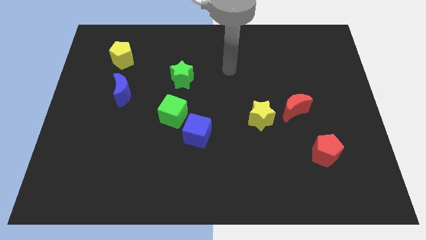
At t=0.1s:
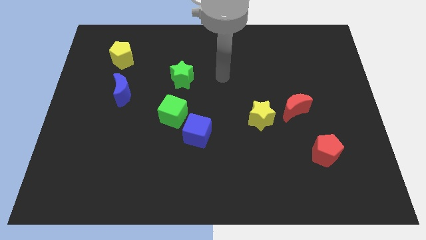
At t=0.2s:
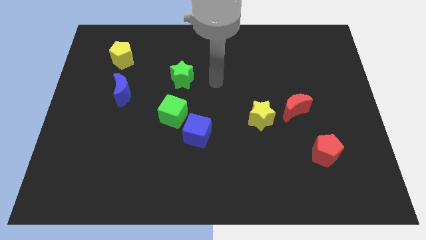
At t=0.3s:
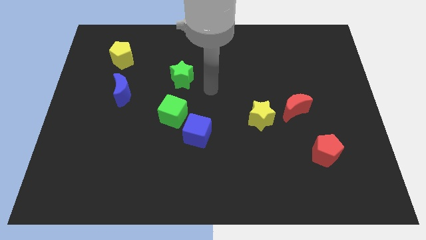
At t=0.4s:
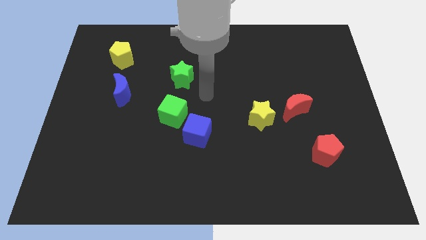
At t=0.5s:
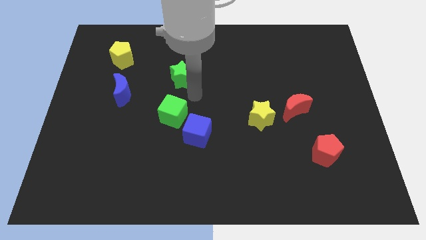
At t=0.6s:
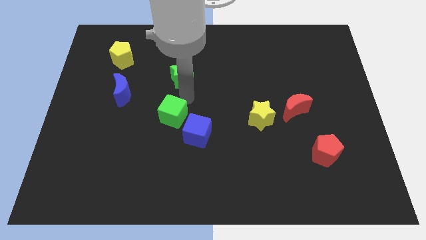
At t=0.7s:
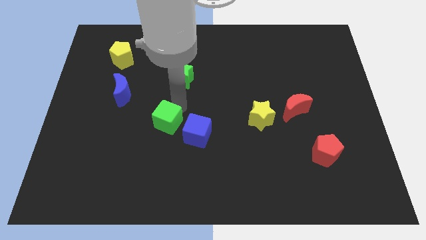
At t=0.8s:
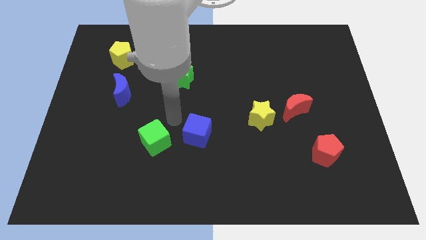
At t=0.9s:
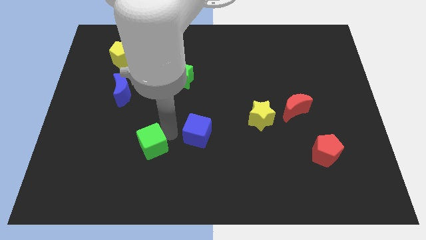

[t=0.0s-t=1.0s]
separate the blue cube from the green cube

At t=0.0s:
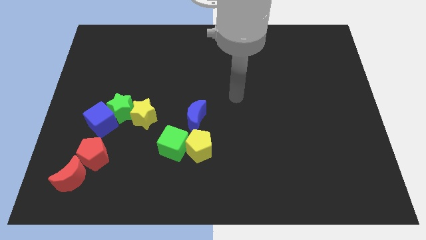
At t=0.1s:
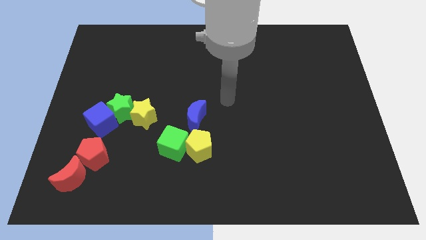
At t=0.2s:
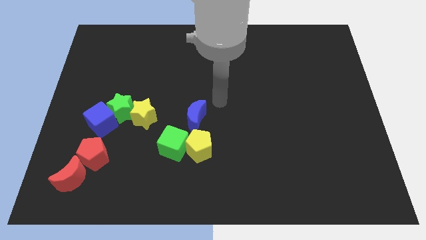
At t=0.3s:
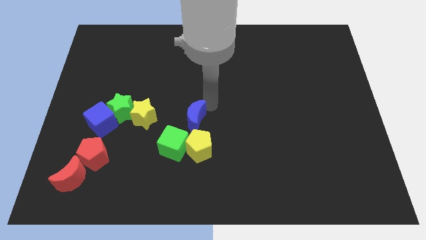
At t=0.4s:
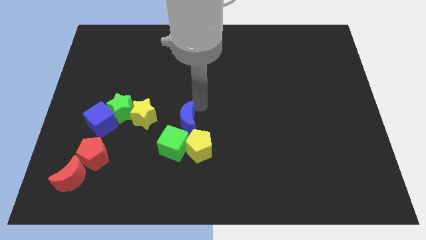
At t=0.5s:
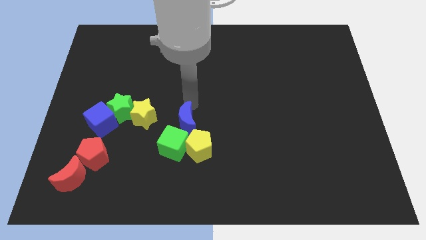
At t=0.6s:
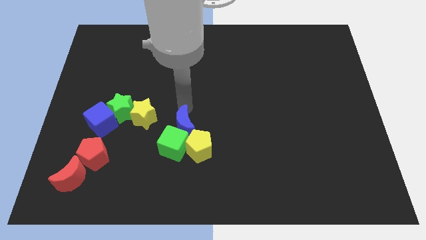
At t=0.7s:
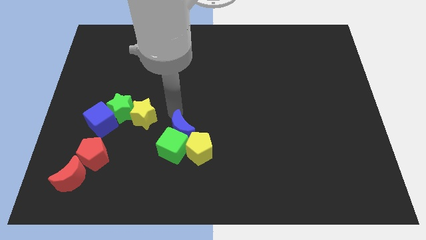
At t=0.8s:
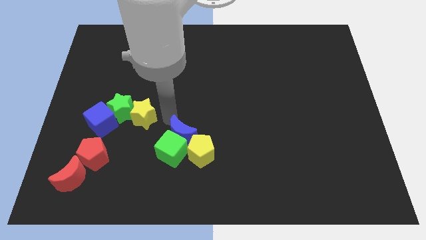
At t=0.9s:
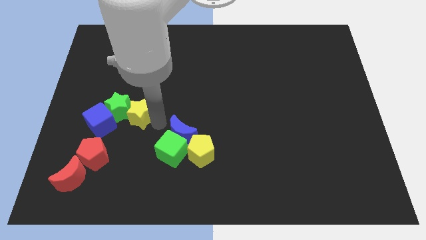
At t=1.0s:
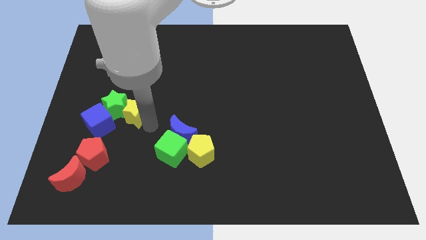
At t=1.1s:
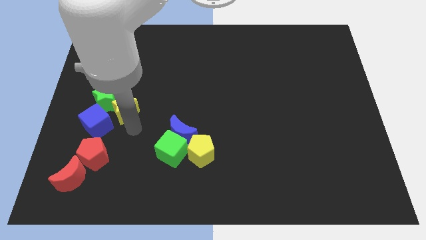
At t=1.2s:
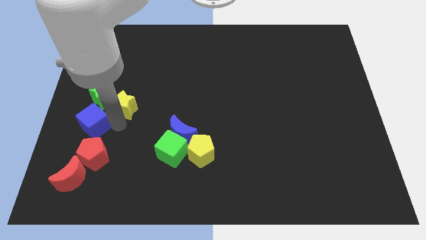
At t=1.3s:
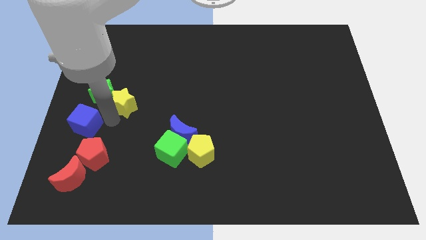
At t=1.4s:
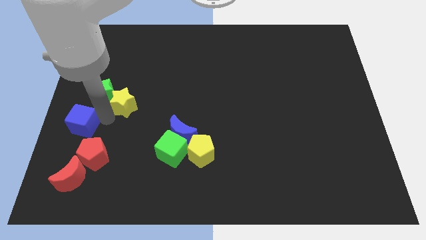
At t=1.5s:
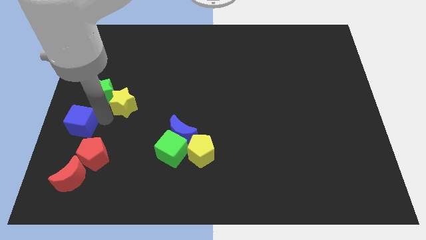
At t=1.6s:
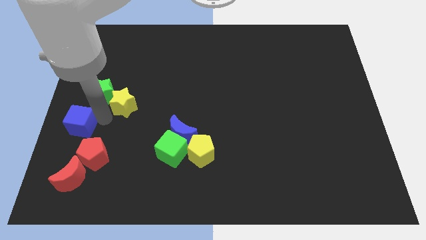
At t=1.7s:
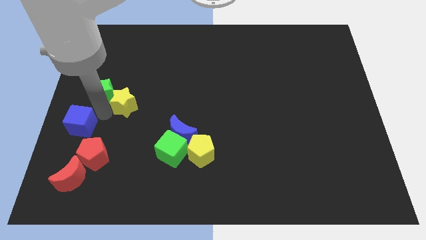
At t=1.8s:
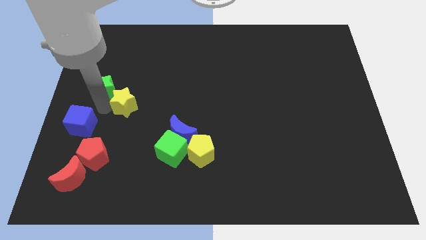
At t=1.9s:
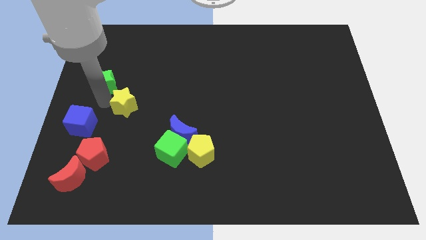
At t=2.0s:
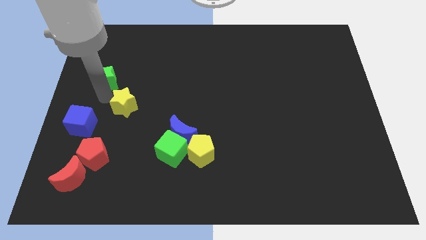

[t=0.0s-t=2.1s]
move the green star away from the blue cube and yellow star

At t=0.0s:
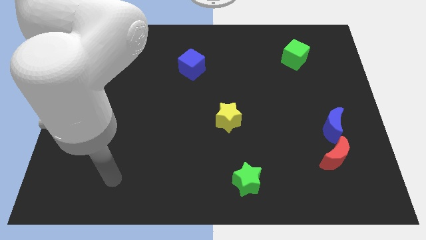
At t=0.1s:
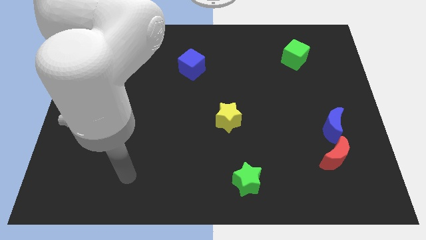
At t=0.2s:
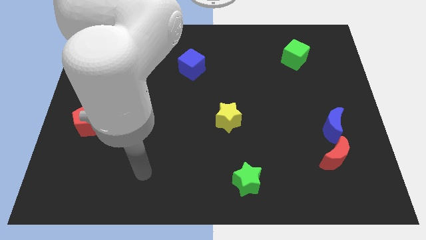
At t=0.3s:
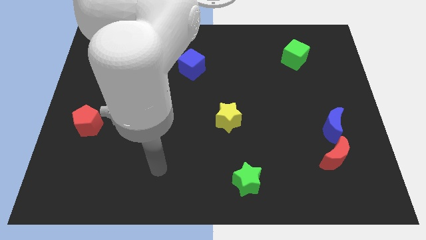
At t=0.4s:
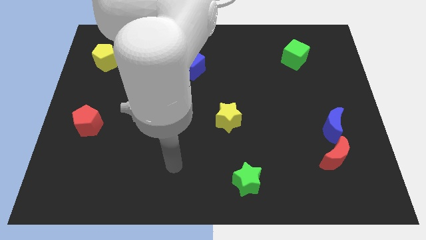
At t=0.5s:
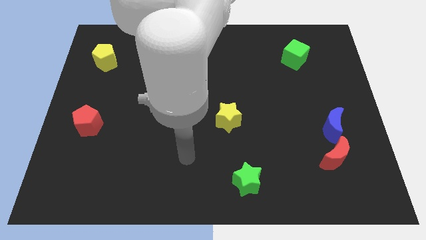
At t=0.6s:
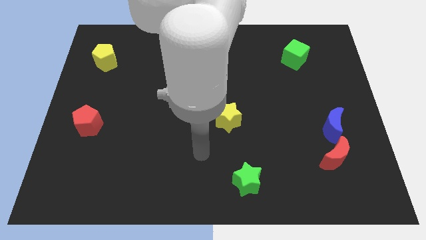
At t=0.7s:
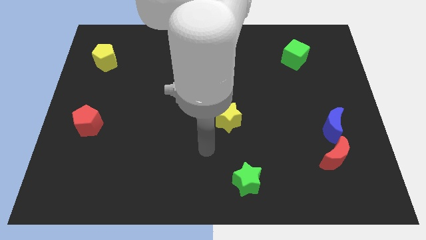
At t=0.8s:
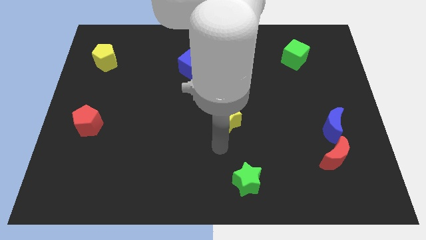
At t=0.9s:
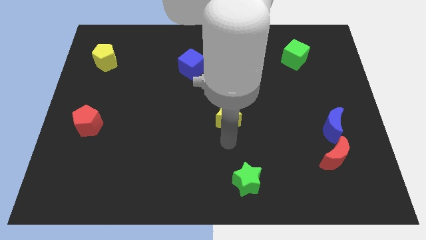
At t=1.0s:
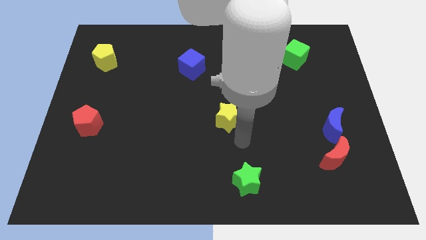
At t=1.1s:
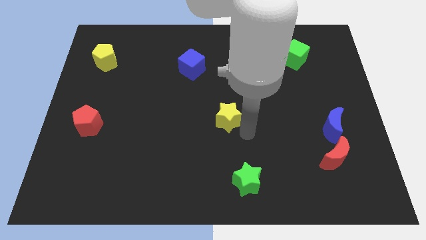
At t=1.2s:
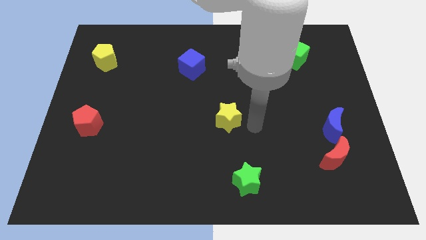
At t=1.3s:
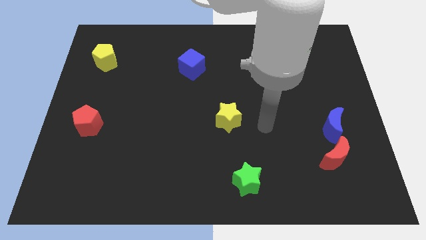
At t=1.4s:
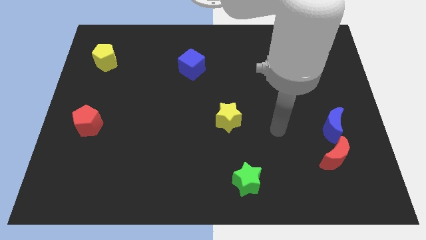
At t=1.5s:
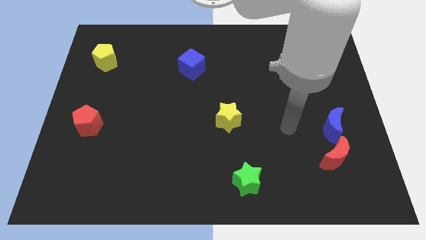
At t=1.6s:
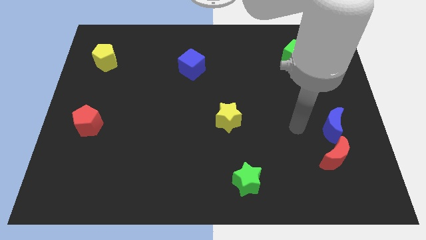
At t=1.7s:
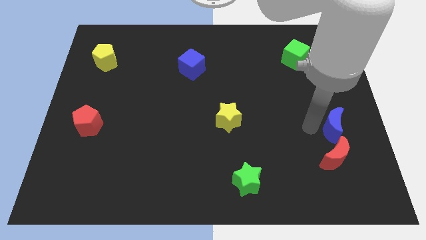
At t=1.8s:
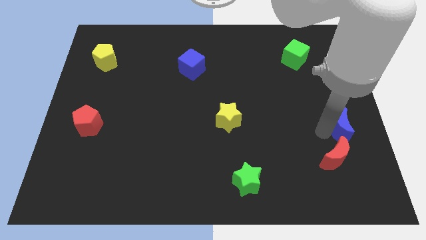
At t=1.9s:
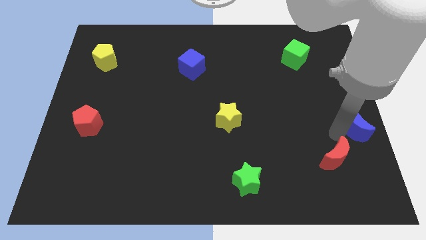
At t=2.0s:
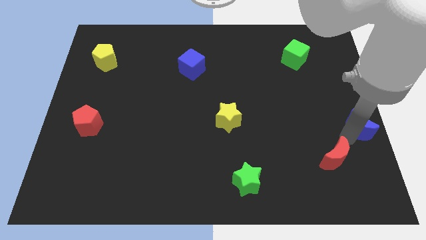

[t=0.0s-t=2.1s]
pull the red moon apart from the blue moon

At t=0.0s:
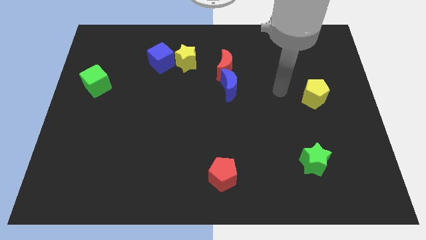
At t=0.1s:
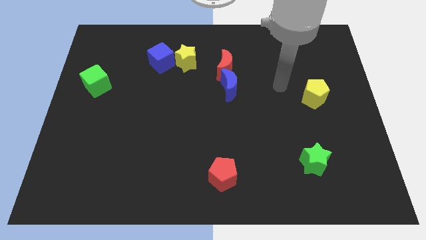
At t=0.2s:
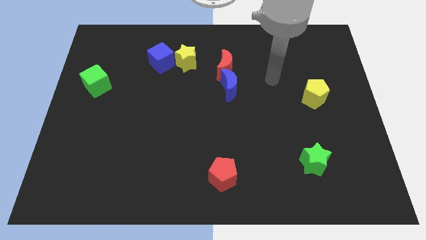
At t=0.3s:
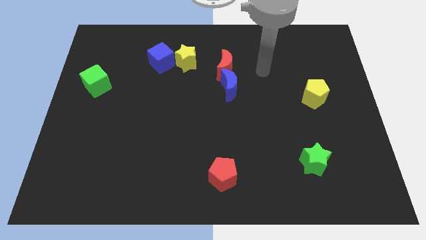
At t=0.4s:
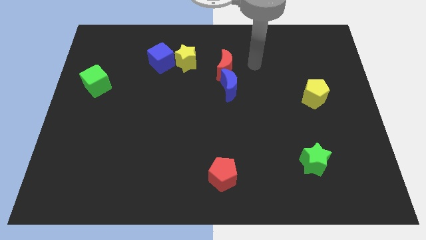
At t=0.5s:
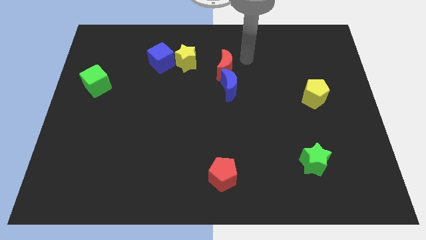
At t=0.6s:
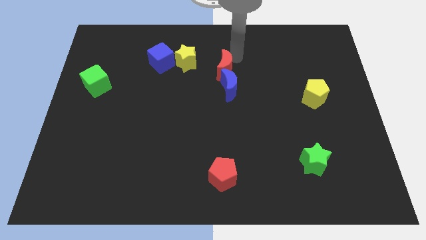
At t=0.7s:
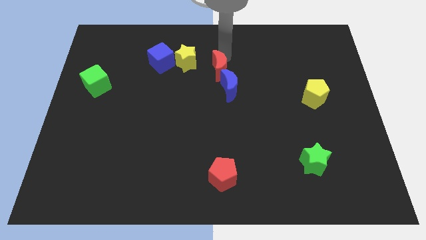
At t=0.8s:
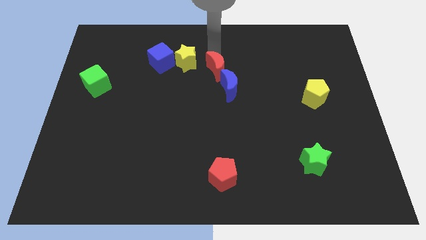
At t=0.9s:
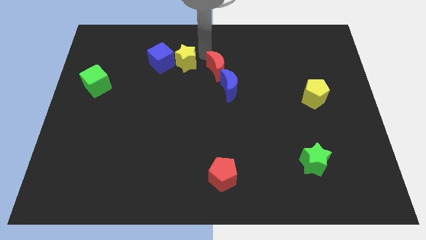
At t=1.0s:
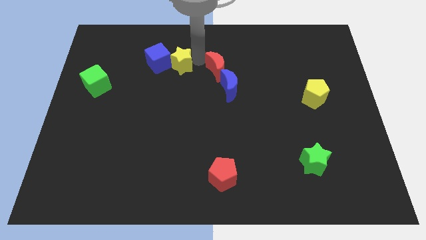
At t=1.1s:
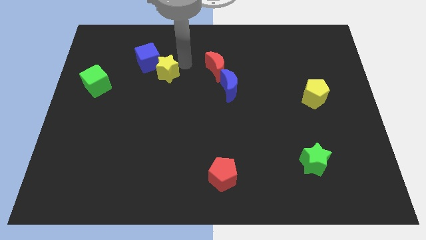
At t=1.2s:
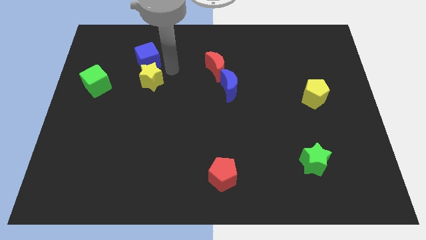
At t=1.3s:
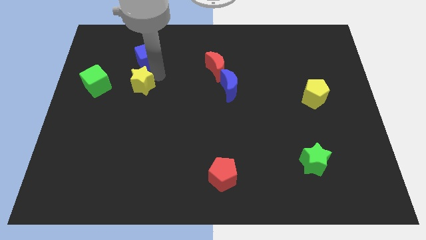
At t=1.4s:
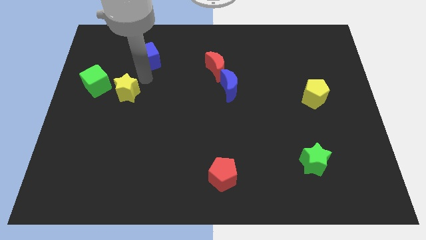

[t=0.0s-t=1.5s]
pull the blue cube apart from the yellow star

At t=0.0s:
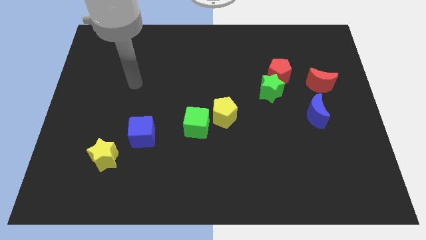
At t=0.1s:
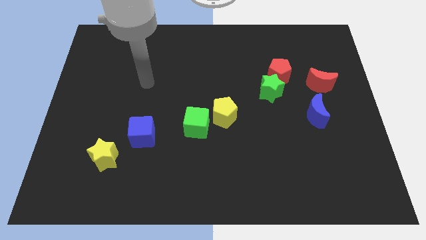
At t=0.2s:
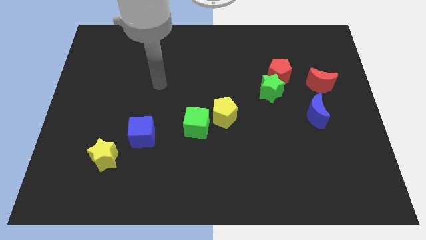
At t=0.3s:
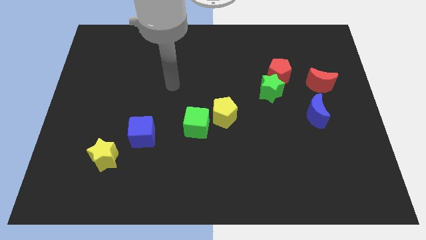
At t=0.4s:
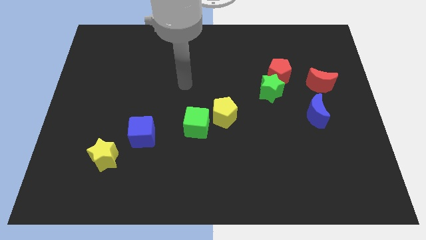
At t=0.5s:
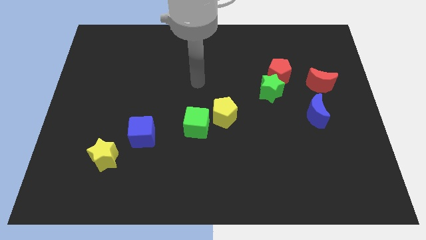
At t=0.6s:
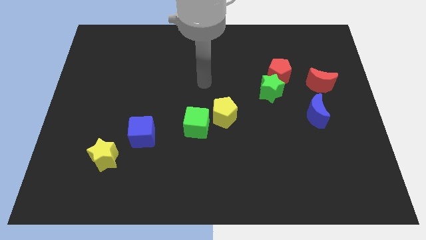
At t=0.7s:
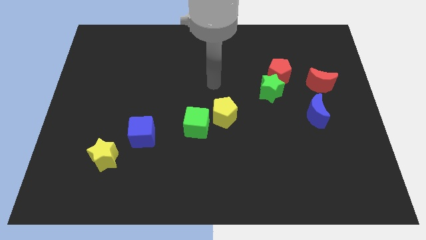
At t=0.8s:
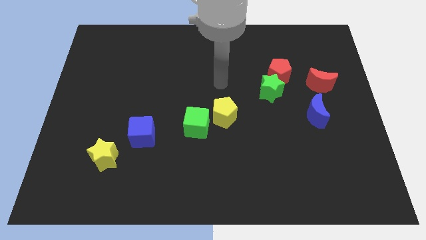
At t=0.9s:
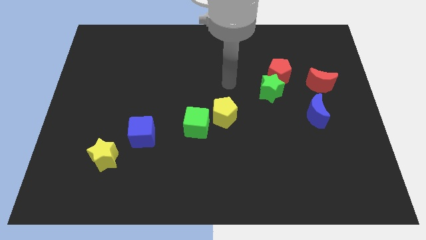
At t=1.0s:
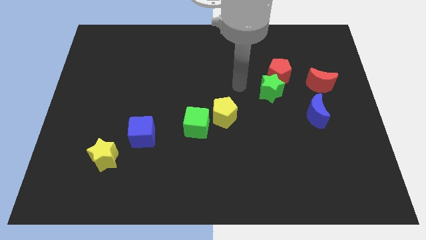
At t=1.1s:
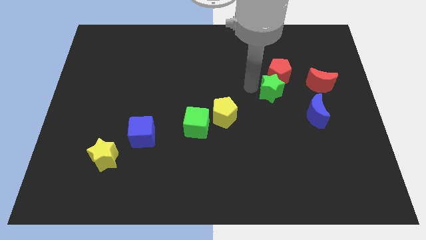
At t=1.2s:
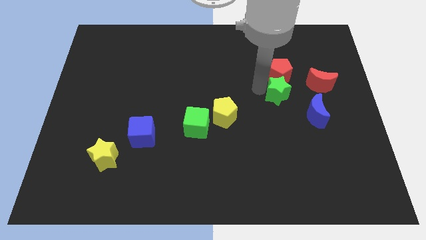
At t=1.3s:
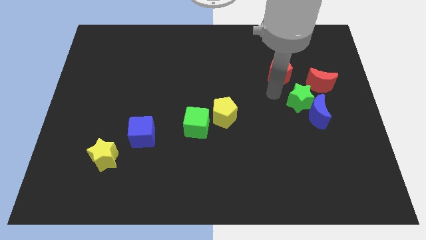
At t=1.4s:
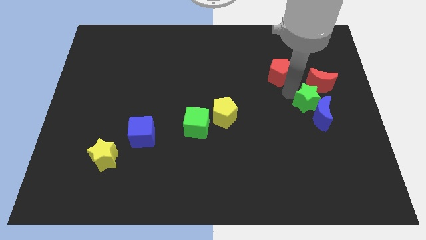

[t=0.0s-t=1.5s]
move the red pentagon away from the green star

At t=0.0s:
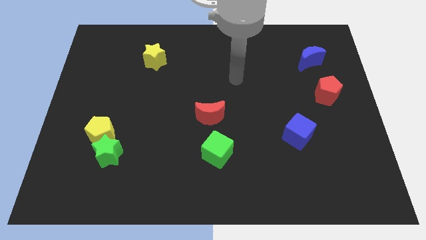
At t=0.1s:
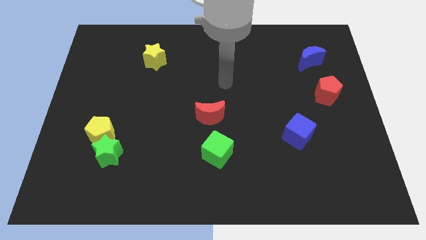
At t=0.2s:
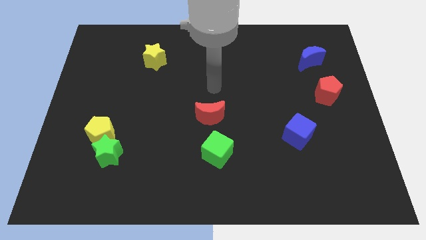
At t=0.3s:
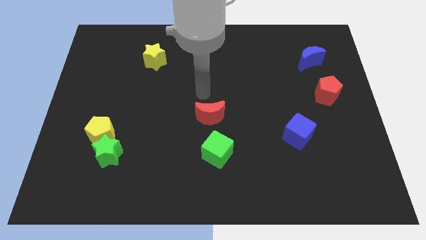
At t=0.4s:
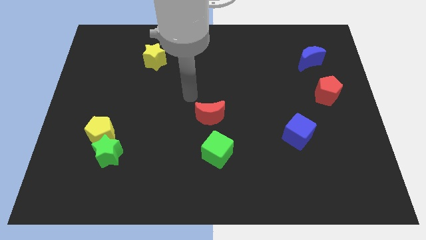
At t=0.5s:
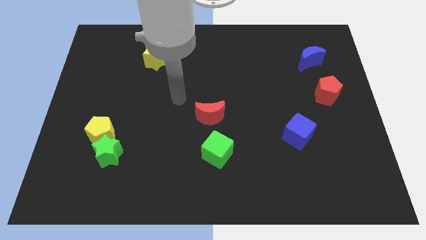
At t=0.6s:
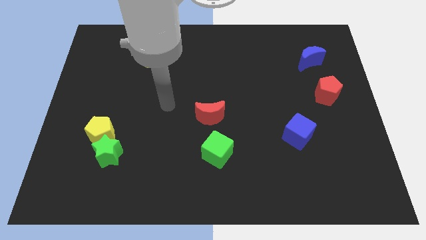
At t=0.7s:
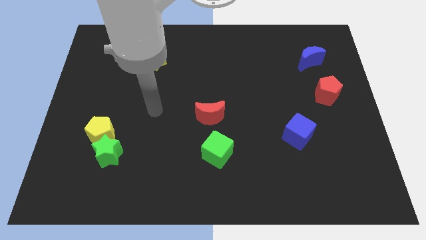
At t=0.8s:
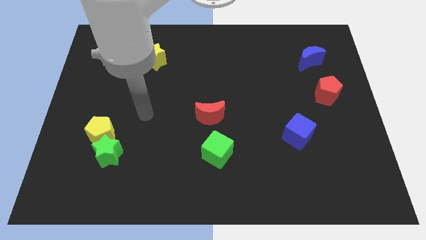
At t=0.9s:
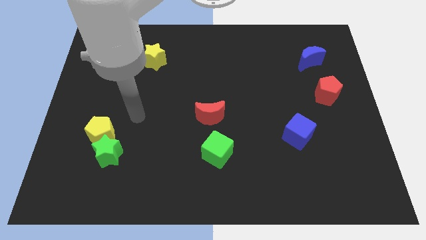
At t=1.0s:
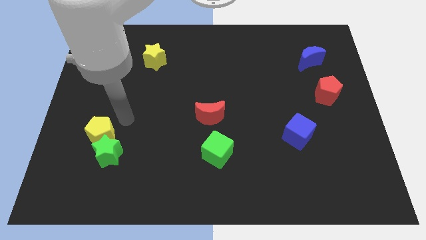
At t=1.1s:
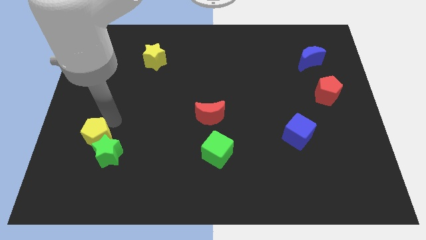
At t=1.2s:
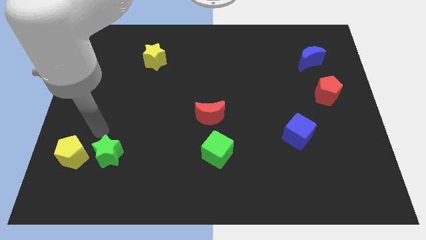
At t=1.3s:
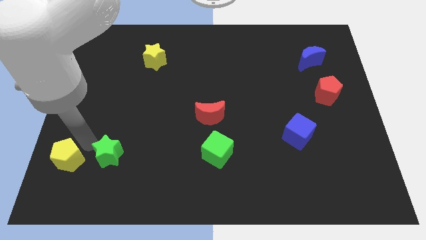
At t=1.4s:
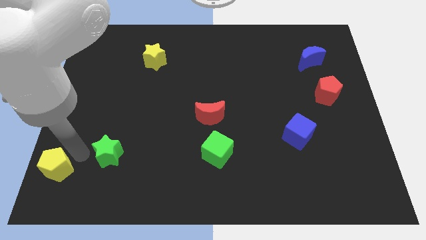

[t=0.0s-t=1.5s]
separate the green star from the yellow pentagon
